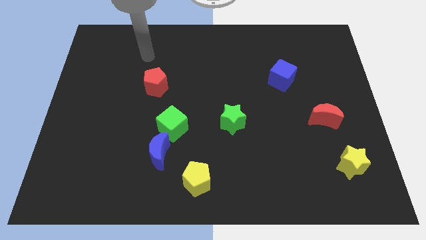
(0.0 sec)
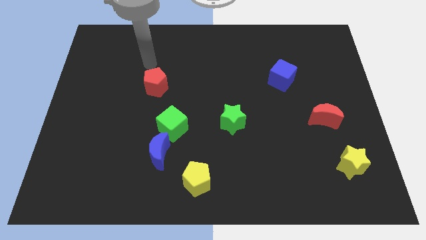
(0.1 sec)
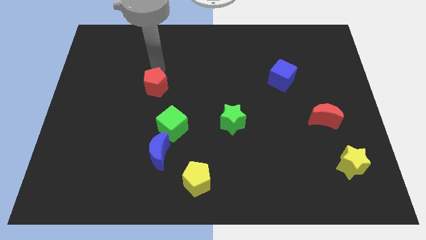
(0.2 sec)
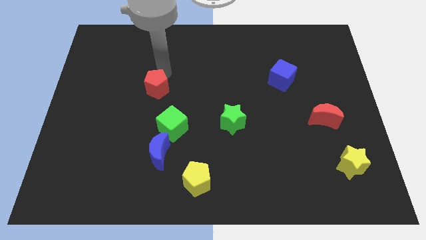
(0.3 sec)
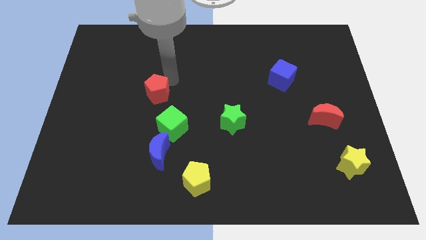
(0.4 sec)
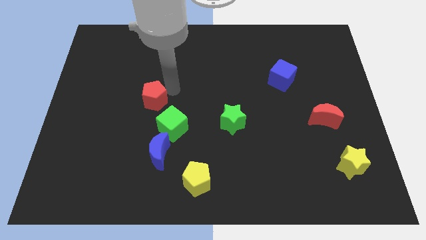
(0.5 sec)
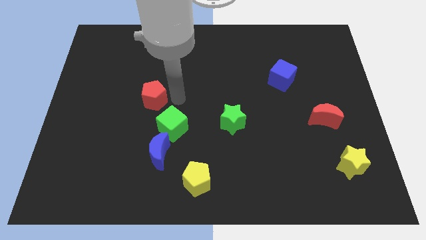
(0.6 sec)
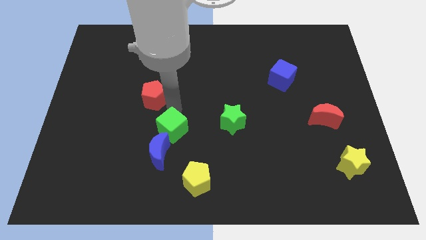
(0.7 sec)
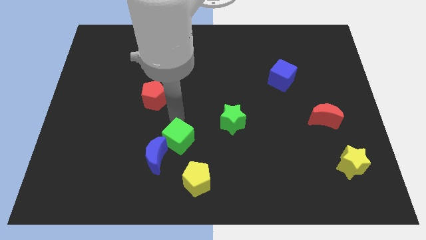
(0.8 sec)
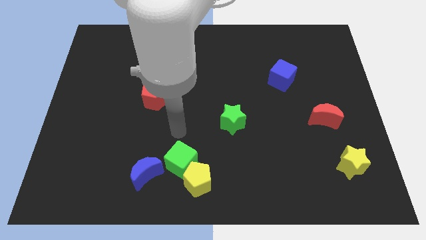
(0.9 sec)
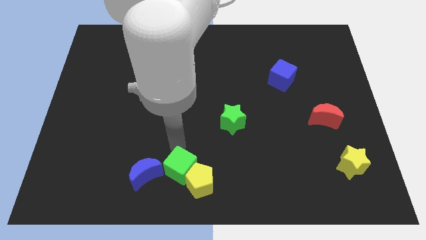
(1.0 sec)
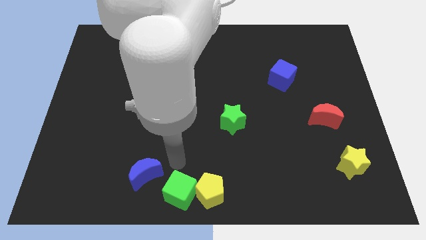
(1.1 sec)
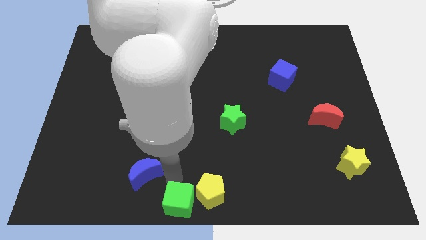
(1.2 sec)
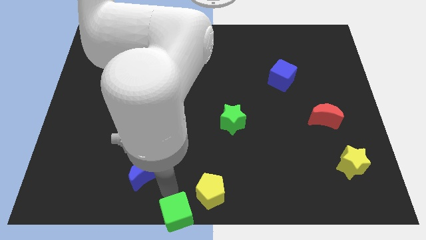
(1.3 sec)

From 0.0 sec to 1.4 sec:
pull the blue moon apart from the green cube

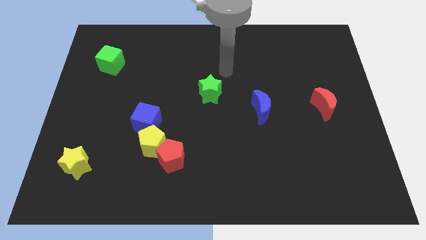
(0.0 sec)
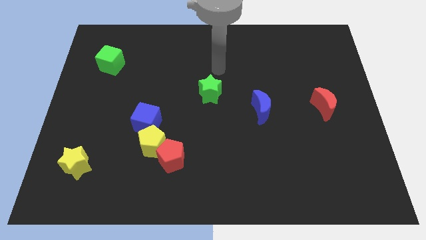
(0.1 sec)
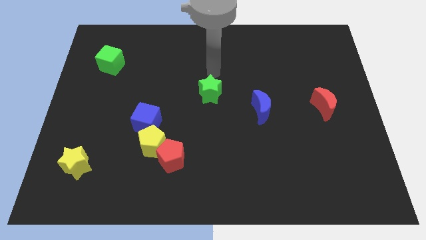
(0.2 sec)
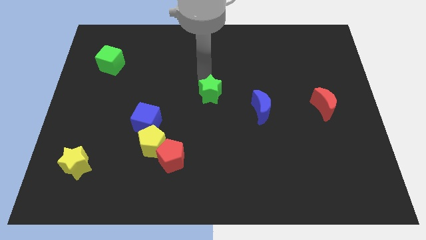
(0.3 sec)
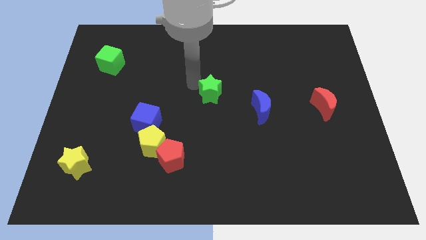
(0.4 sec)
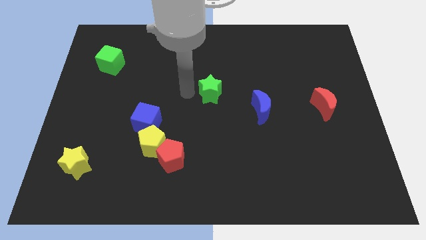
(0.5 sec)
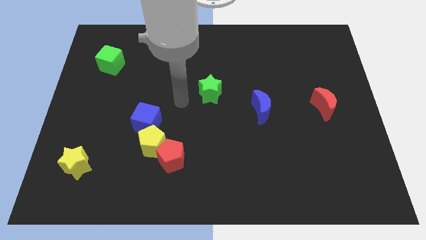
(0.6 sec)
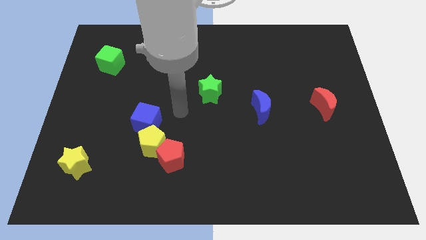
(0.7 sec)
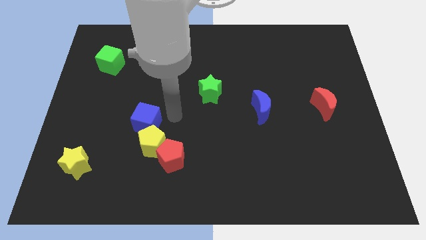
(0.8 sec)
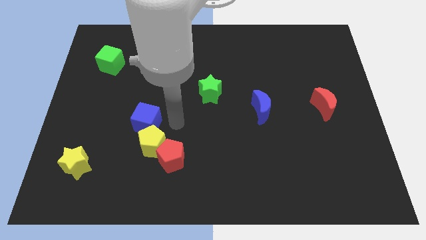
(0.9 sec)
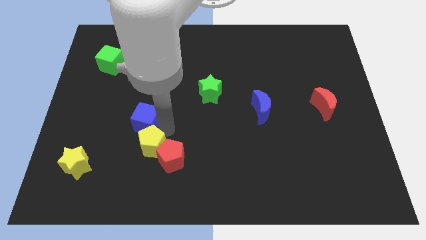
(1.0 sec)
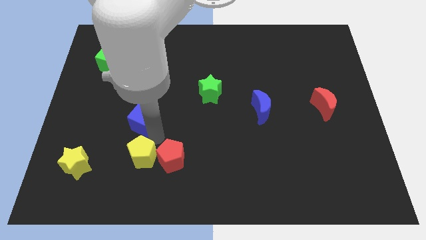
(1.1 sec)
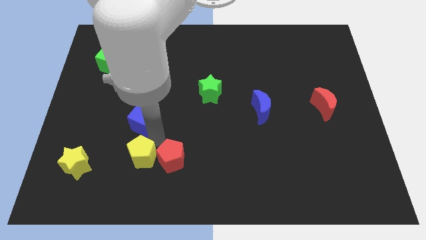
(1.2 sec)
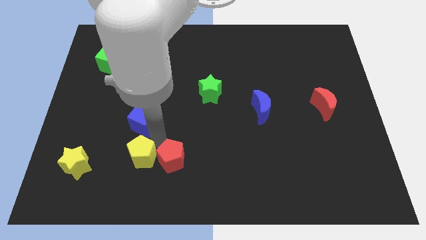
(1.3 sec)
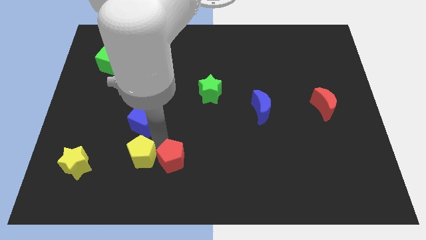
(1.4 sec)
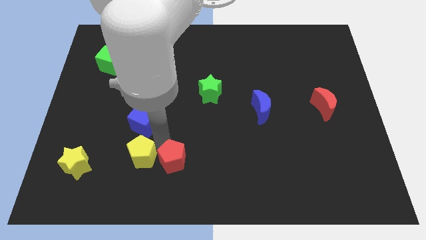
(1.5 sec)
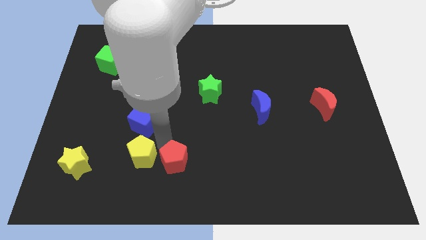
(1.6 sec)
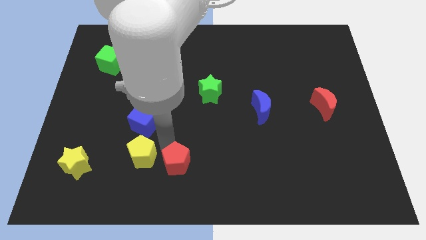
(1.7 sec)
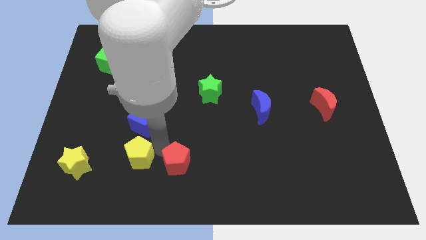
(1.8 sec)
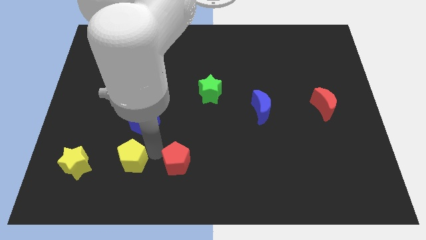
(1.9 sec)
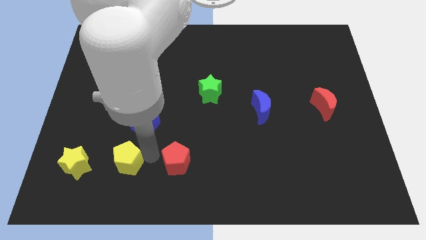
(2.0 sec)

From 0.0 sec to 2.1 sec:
pull the red pentagon apart from the yellow pentagon

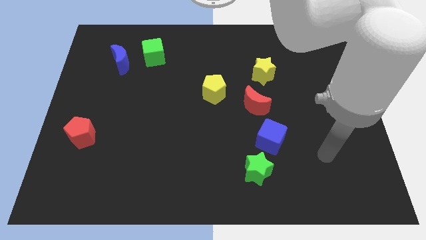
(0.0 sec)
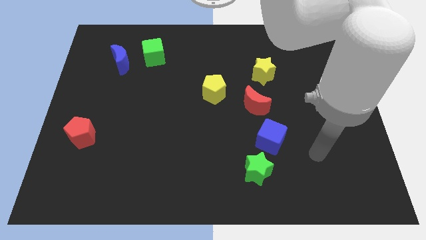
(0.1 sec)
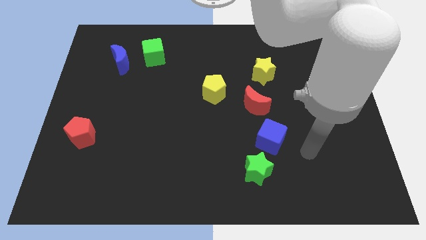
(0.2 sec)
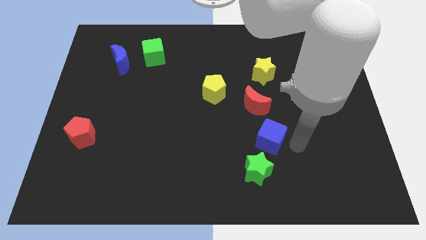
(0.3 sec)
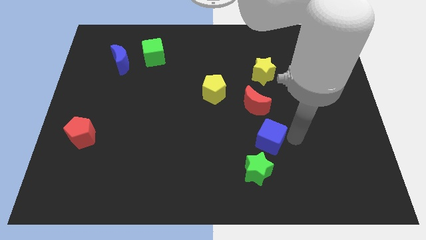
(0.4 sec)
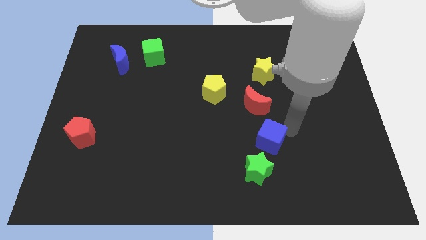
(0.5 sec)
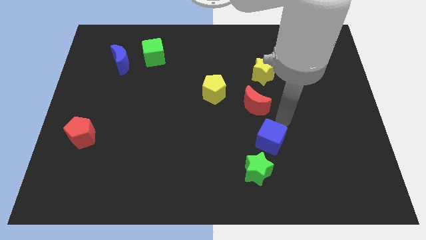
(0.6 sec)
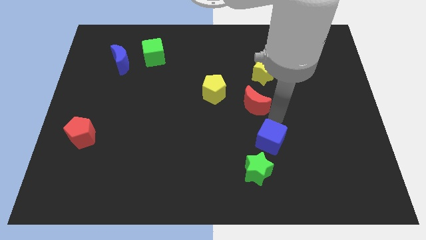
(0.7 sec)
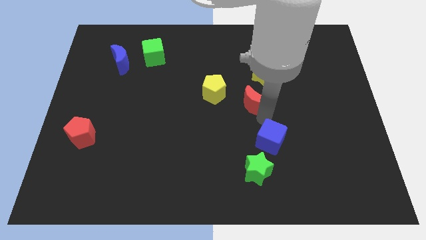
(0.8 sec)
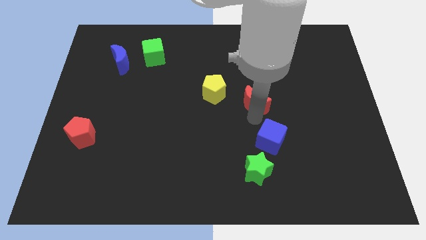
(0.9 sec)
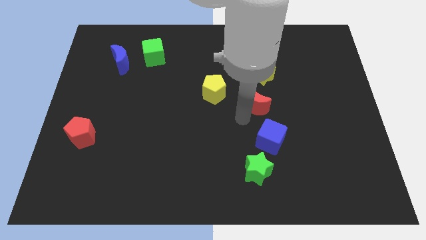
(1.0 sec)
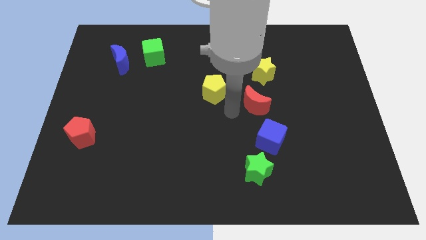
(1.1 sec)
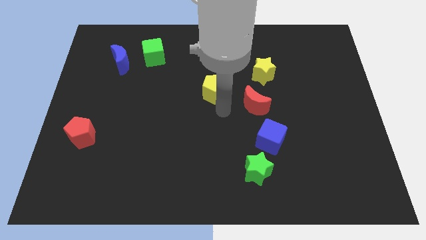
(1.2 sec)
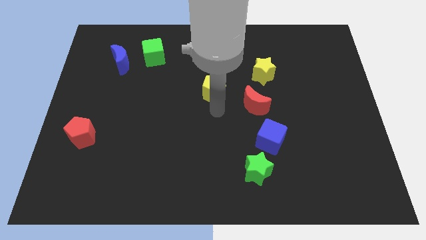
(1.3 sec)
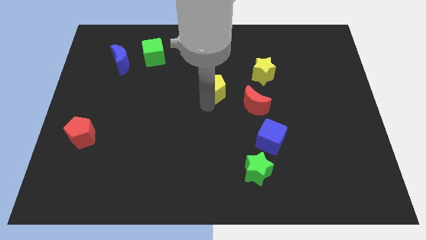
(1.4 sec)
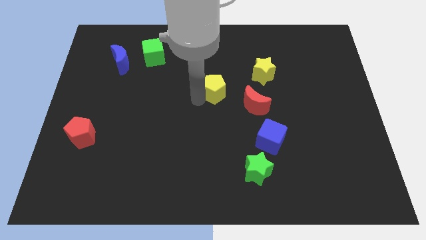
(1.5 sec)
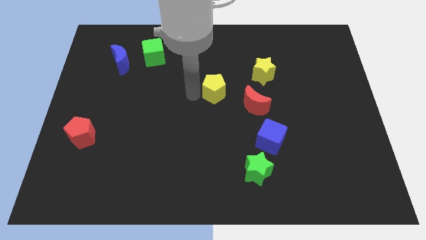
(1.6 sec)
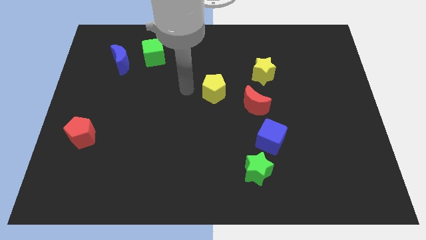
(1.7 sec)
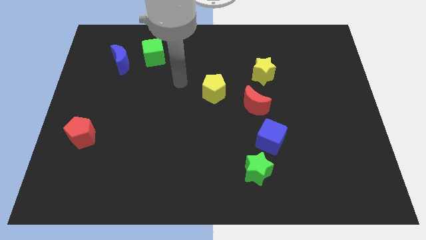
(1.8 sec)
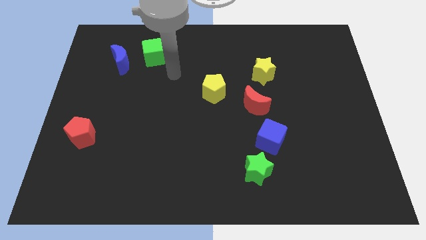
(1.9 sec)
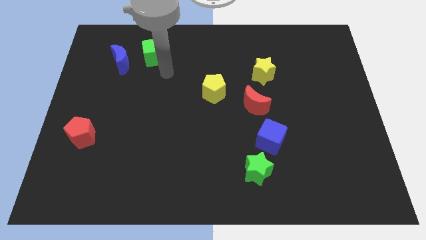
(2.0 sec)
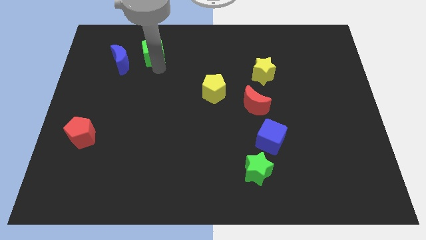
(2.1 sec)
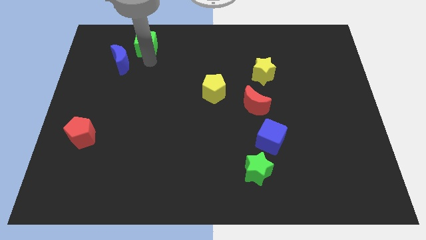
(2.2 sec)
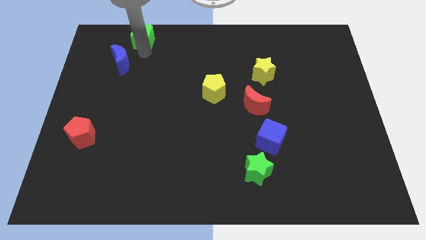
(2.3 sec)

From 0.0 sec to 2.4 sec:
separate the blue moon from the green cube

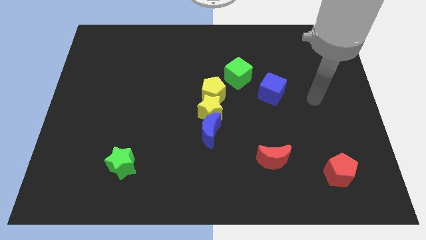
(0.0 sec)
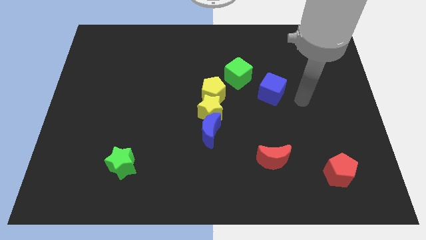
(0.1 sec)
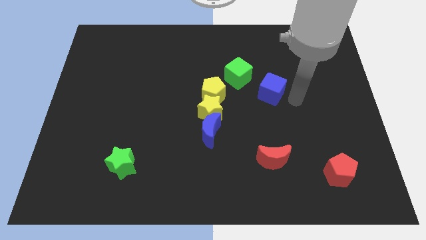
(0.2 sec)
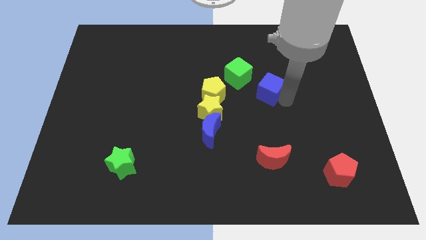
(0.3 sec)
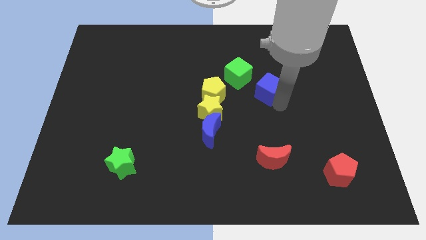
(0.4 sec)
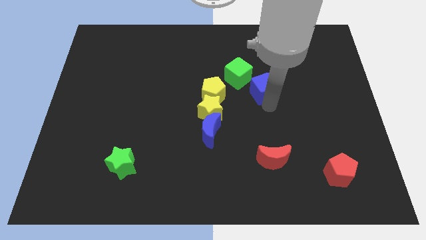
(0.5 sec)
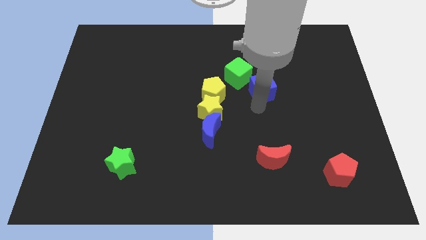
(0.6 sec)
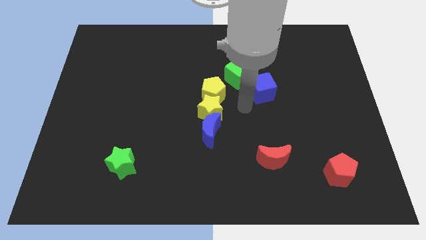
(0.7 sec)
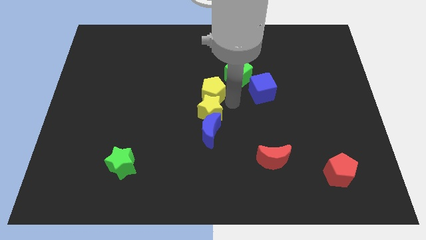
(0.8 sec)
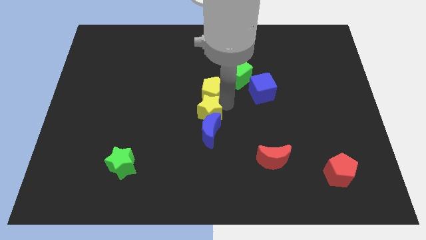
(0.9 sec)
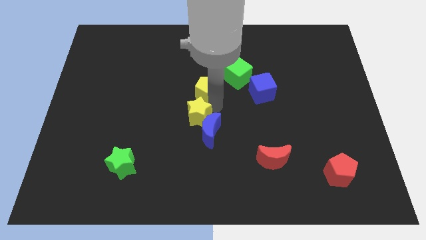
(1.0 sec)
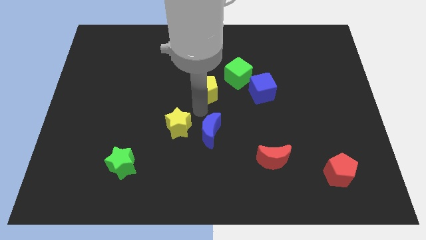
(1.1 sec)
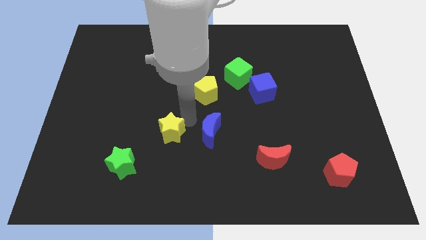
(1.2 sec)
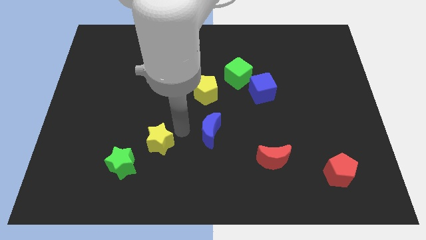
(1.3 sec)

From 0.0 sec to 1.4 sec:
move the blue moon away from the yellow star

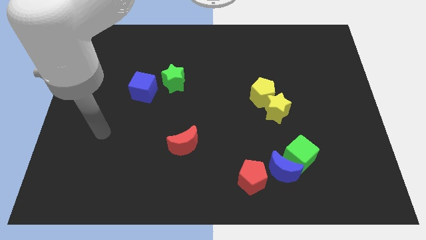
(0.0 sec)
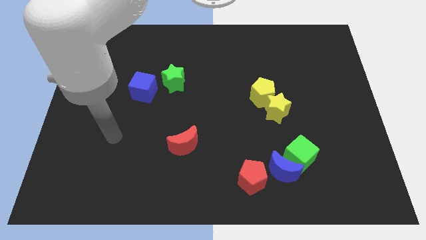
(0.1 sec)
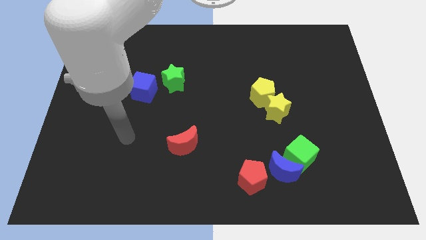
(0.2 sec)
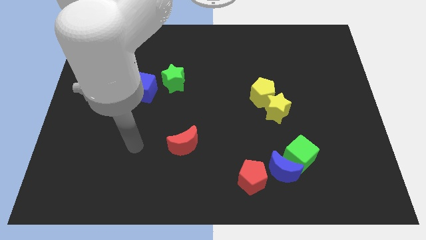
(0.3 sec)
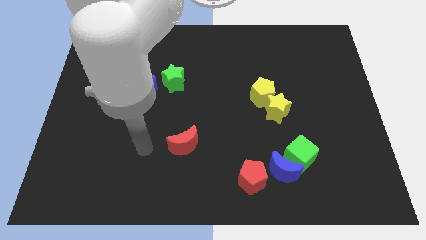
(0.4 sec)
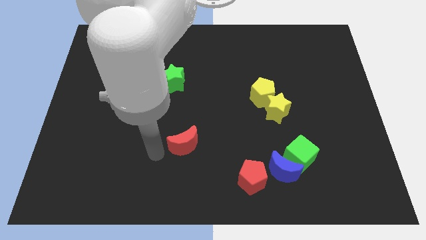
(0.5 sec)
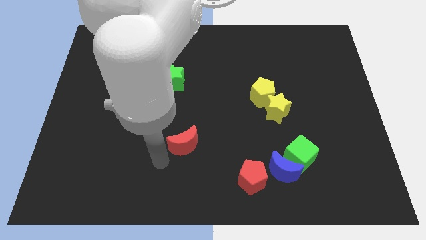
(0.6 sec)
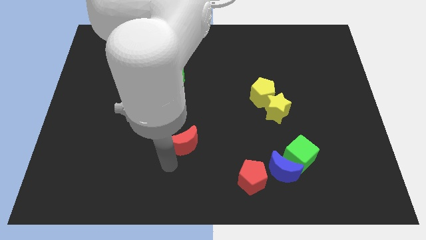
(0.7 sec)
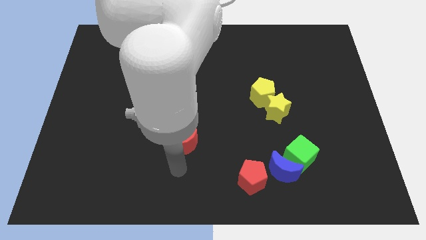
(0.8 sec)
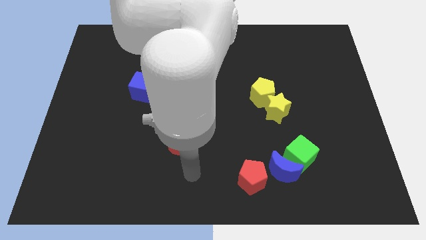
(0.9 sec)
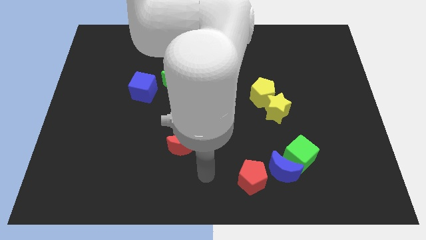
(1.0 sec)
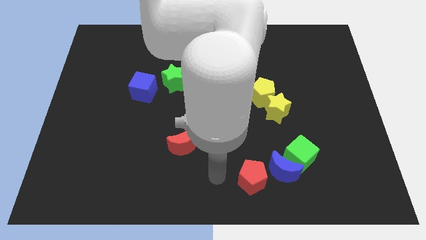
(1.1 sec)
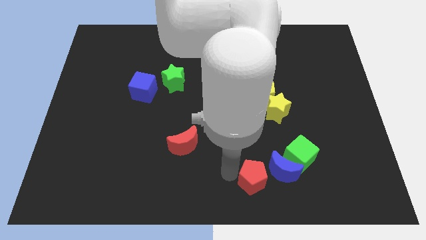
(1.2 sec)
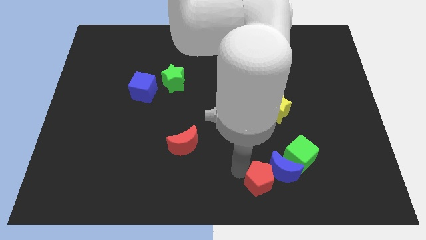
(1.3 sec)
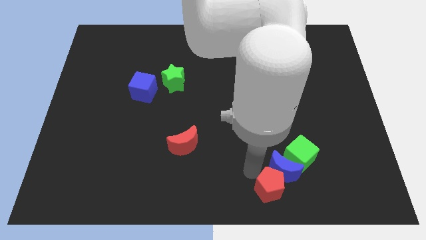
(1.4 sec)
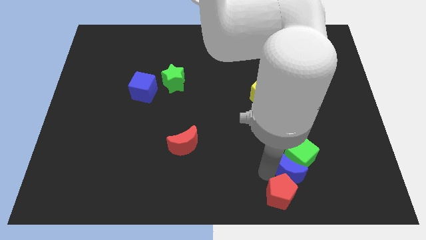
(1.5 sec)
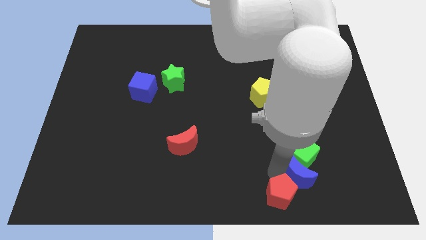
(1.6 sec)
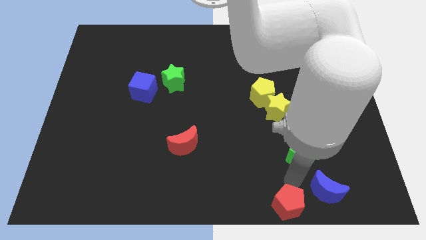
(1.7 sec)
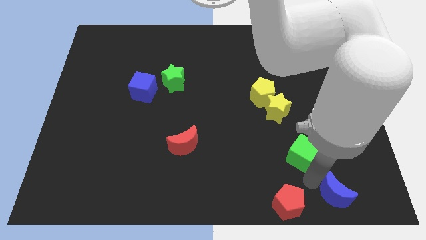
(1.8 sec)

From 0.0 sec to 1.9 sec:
pull the green cube apart from the blue moon
